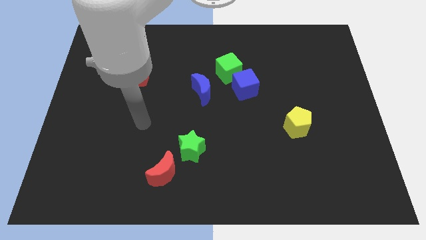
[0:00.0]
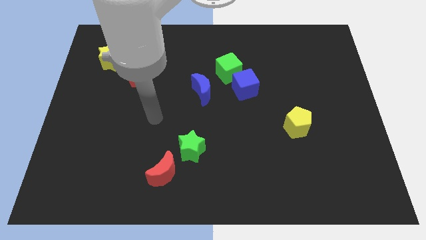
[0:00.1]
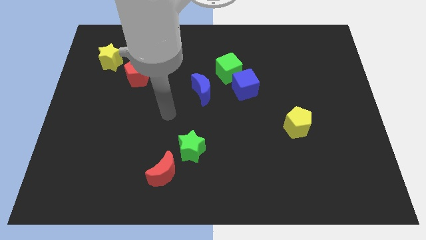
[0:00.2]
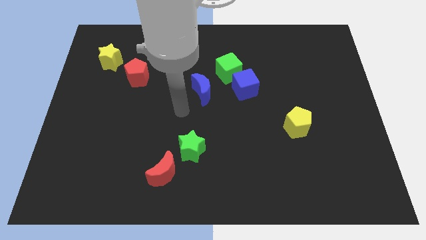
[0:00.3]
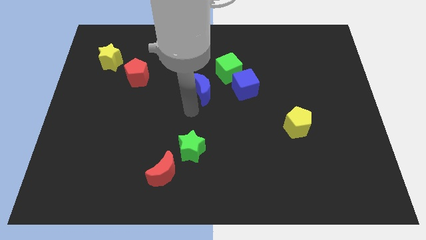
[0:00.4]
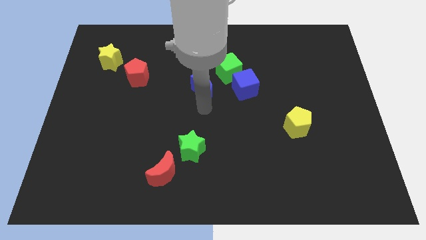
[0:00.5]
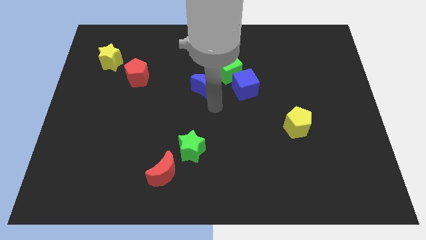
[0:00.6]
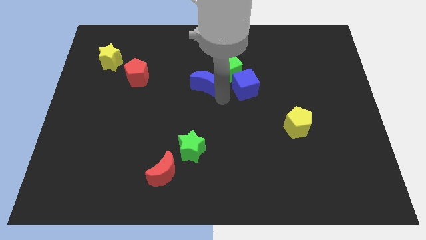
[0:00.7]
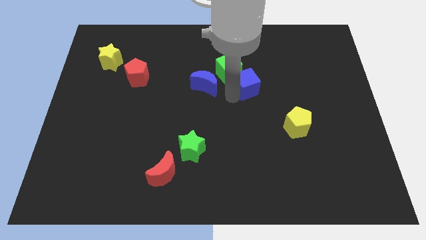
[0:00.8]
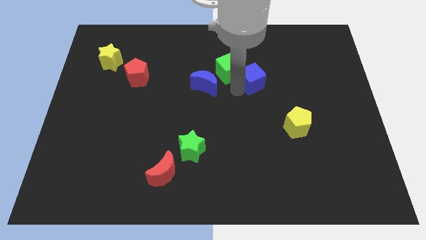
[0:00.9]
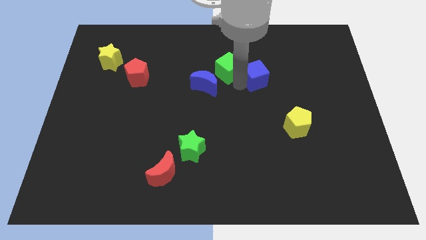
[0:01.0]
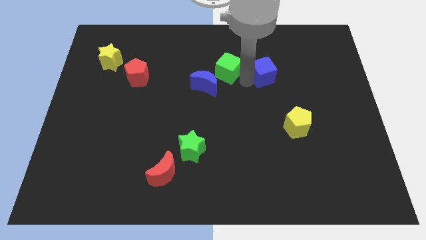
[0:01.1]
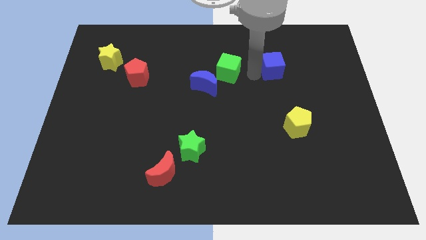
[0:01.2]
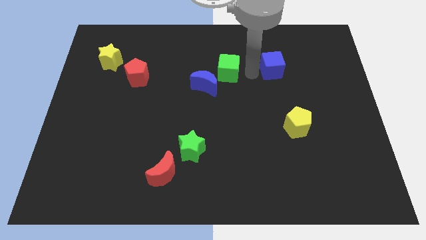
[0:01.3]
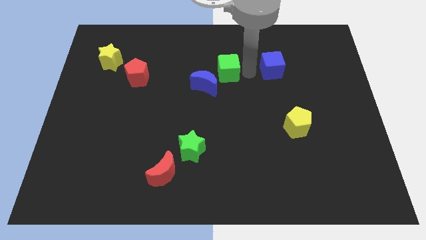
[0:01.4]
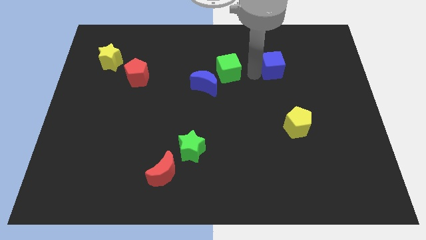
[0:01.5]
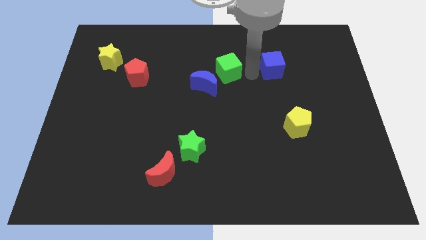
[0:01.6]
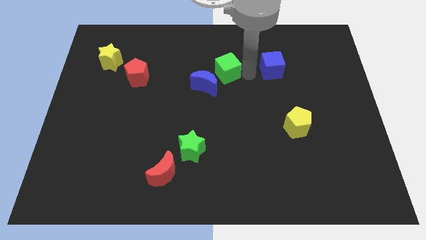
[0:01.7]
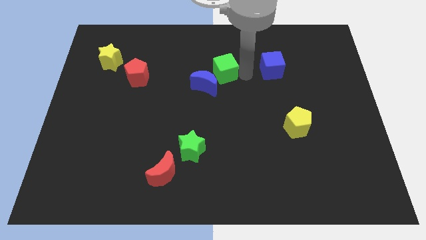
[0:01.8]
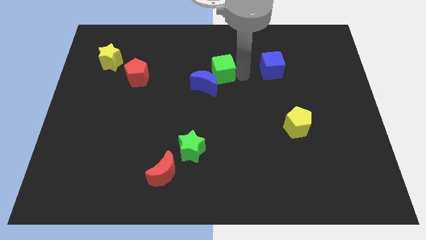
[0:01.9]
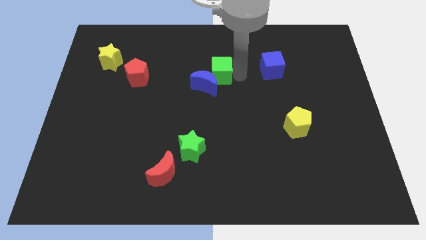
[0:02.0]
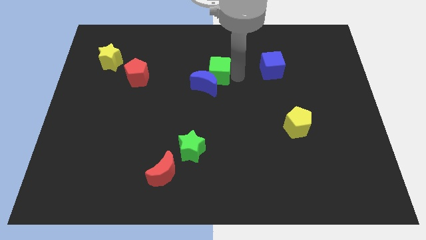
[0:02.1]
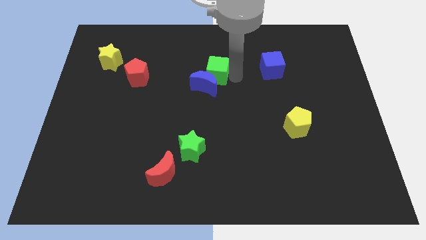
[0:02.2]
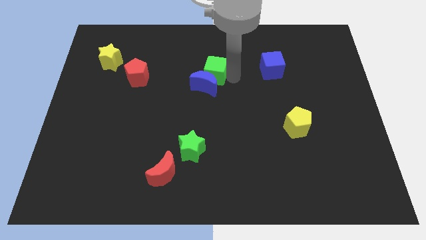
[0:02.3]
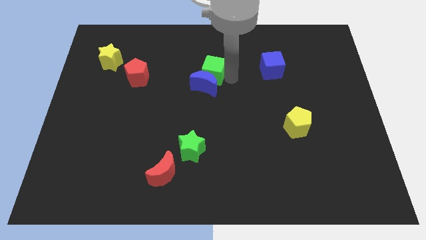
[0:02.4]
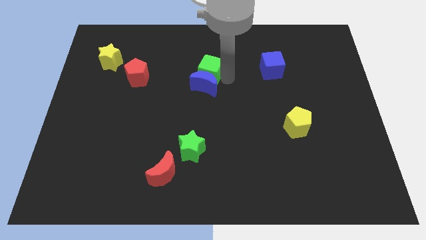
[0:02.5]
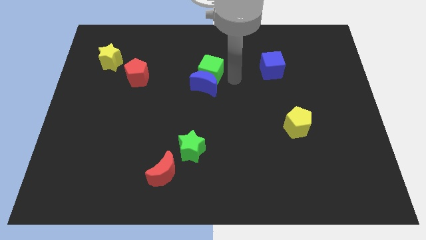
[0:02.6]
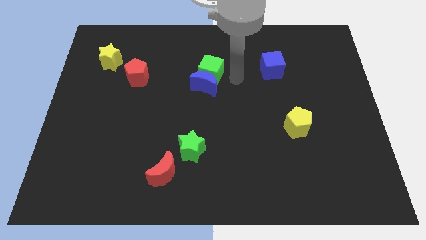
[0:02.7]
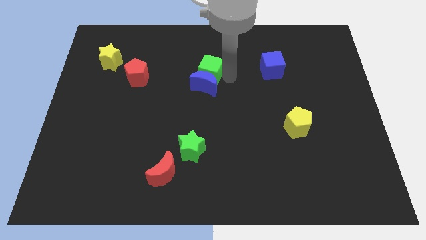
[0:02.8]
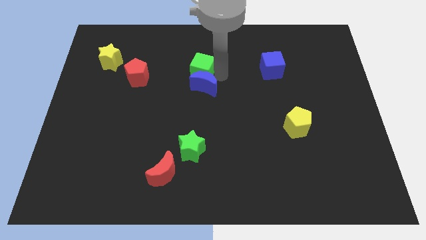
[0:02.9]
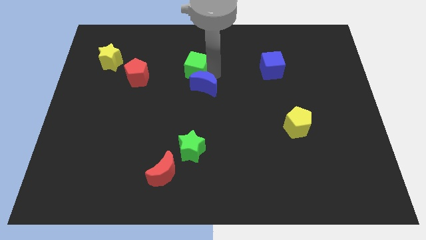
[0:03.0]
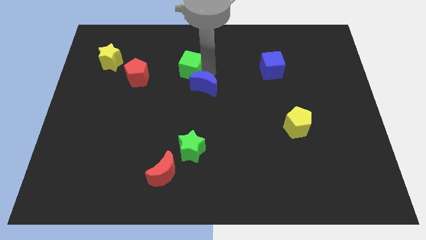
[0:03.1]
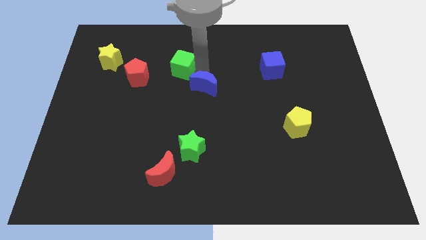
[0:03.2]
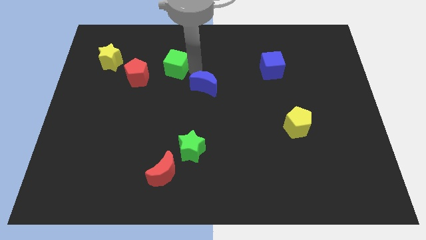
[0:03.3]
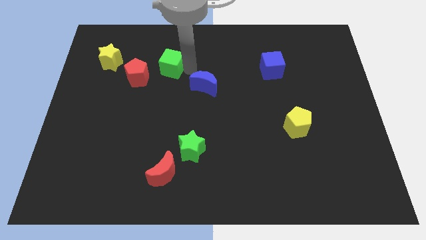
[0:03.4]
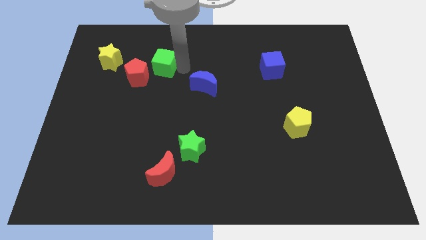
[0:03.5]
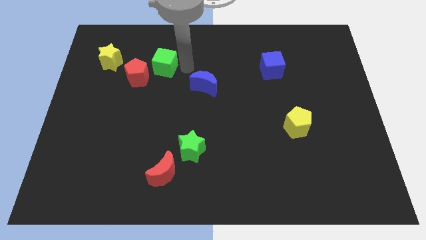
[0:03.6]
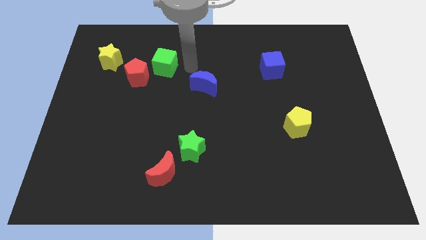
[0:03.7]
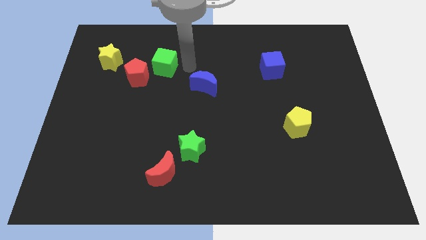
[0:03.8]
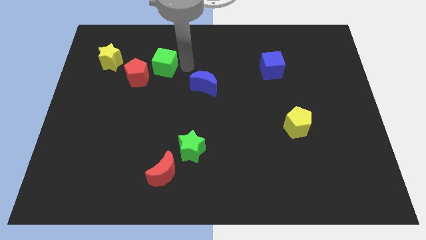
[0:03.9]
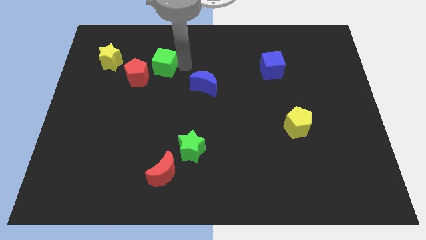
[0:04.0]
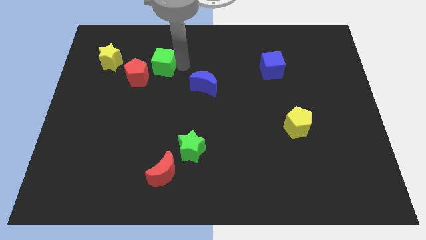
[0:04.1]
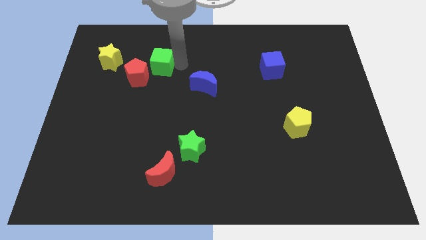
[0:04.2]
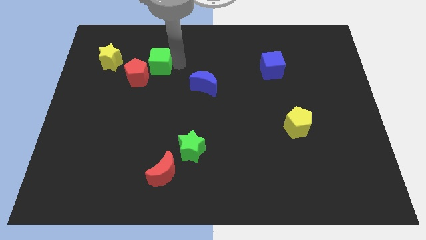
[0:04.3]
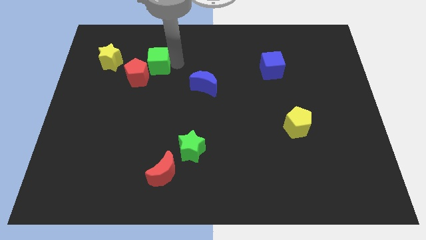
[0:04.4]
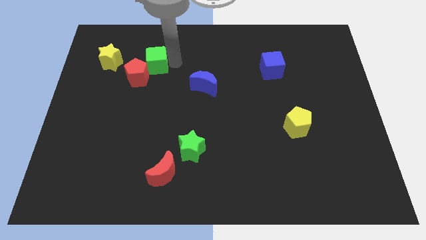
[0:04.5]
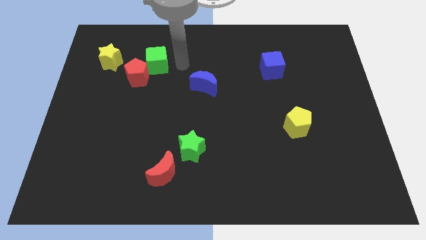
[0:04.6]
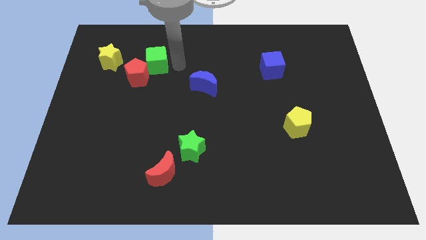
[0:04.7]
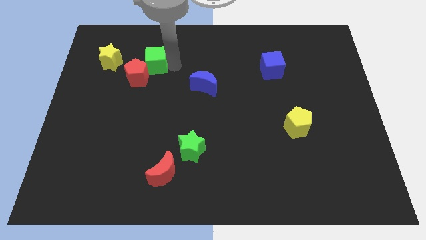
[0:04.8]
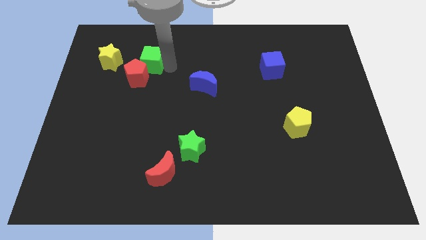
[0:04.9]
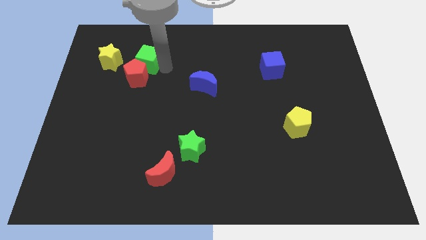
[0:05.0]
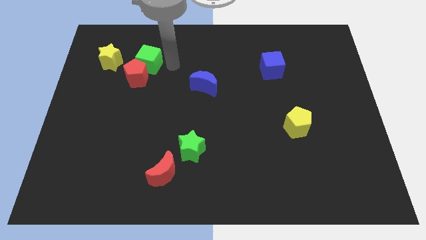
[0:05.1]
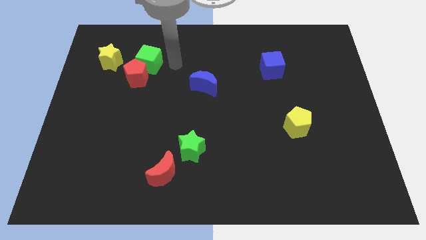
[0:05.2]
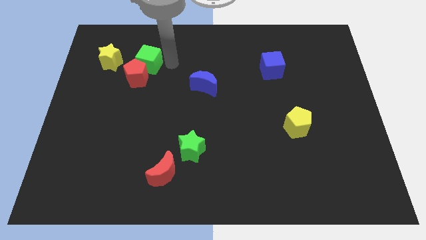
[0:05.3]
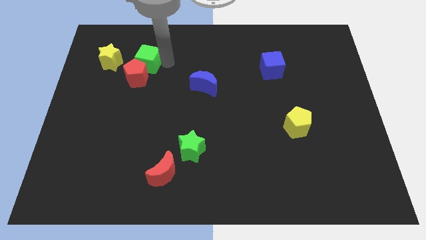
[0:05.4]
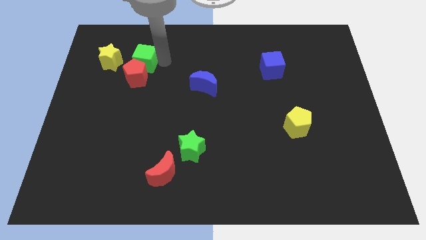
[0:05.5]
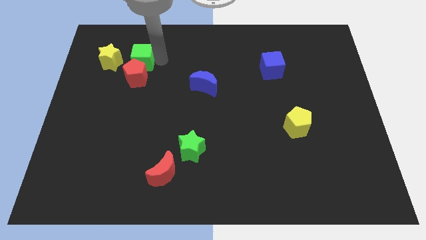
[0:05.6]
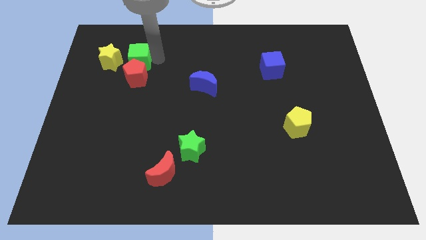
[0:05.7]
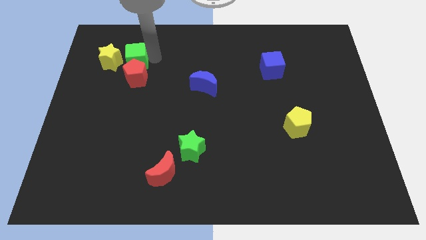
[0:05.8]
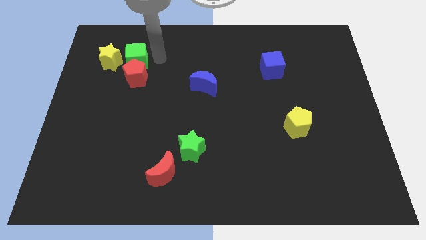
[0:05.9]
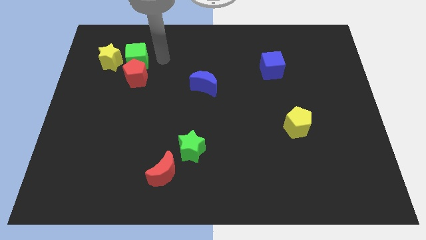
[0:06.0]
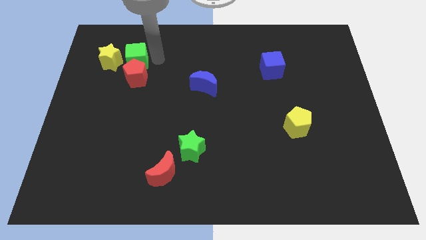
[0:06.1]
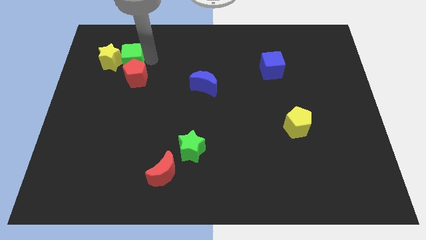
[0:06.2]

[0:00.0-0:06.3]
push the green cube next to the yellow star
